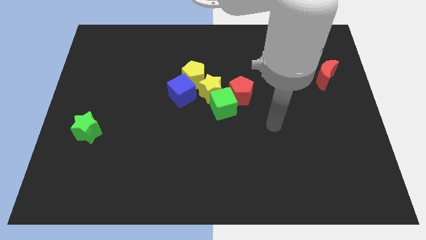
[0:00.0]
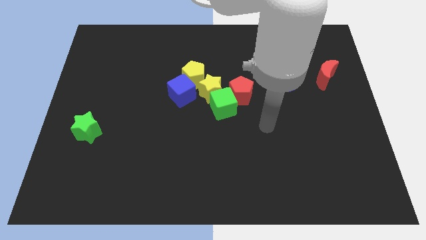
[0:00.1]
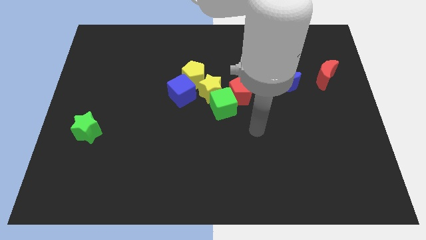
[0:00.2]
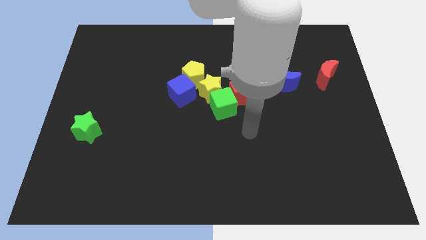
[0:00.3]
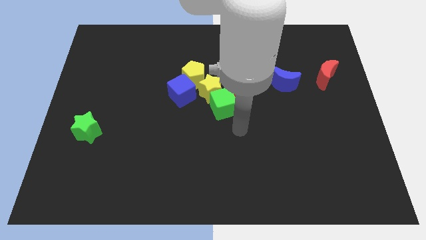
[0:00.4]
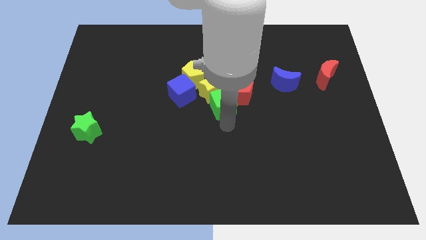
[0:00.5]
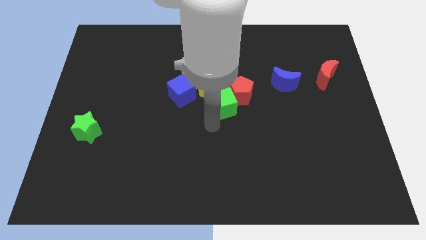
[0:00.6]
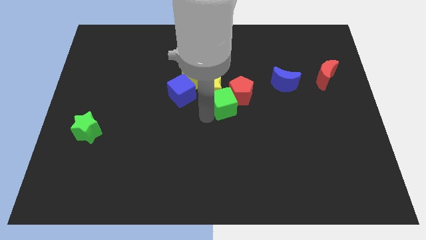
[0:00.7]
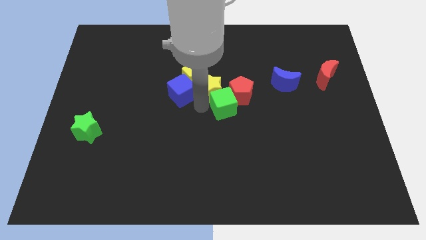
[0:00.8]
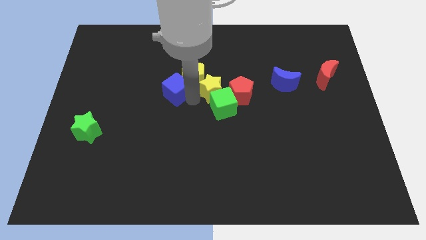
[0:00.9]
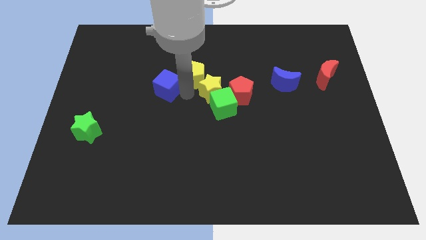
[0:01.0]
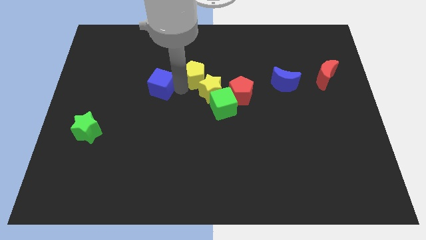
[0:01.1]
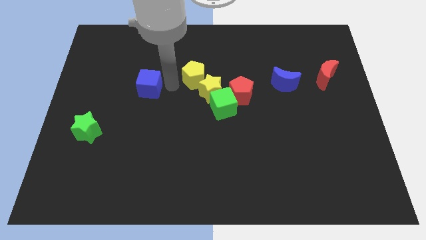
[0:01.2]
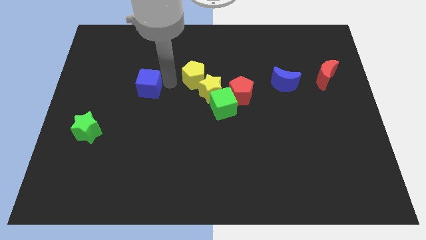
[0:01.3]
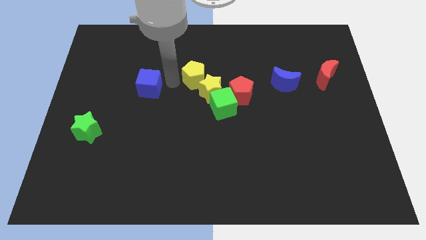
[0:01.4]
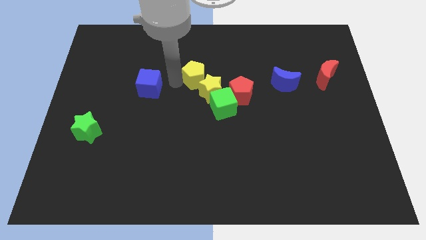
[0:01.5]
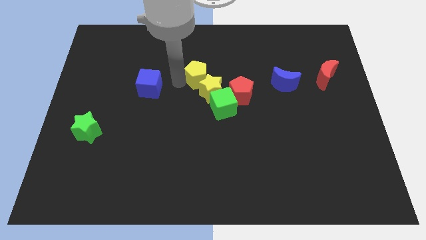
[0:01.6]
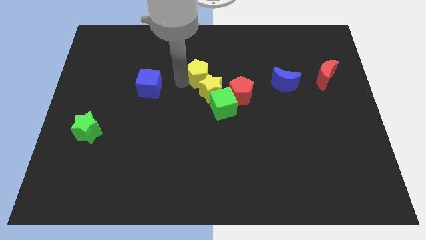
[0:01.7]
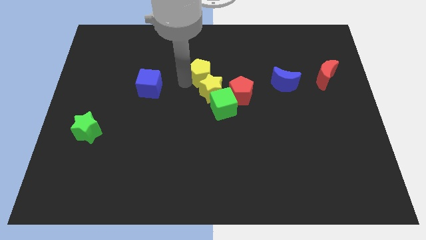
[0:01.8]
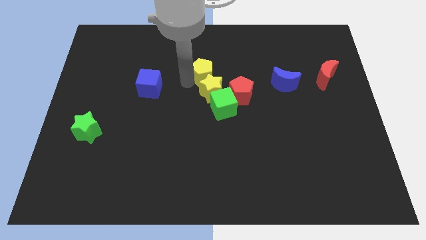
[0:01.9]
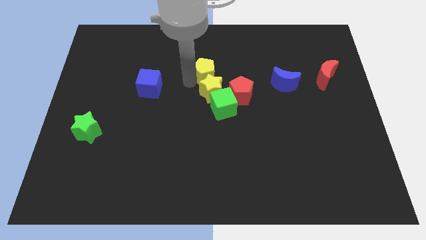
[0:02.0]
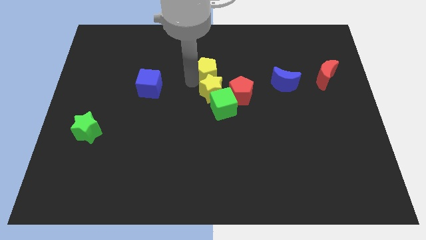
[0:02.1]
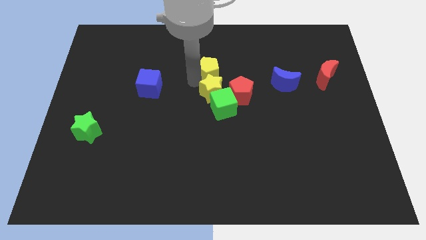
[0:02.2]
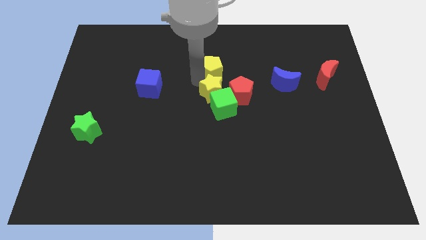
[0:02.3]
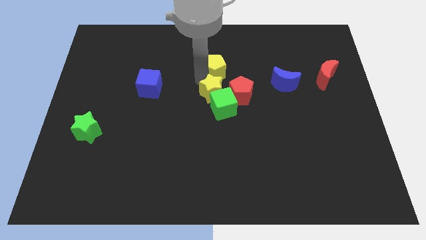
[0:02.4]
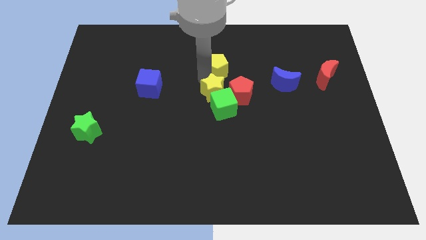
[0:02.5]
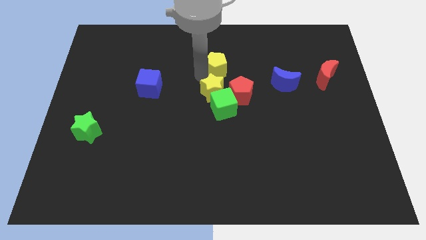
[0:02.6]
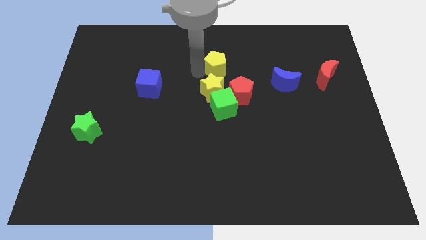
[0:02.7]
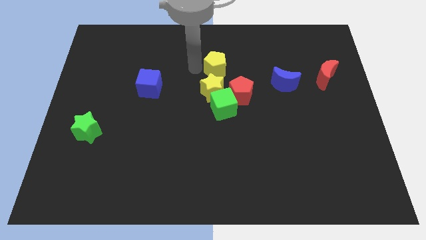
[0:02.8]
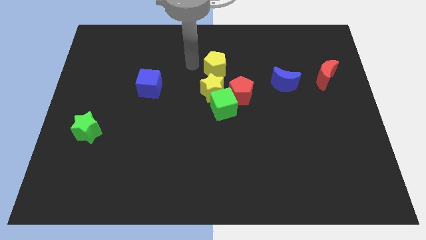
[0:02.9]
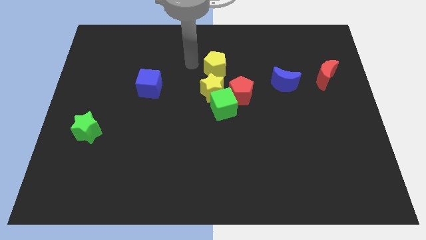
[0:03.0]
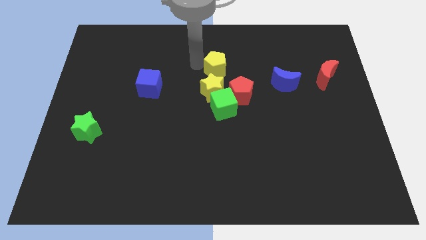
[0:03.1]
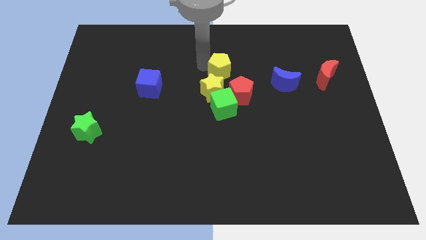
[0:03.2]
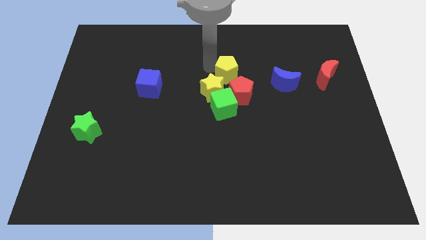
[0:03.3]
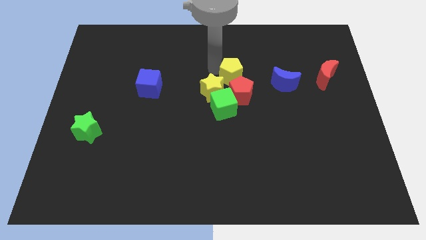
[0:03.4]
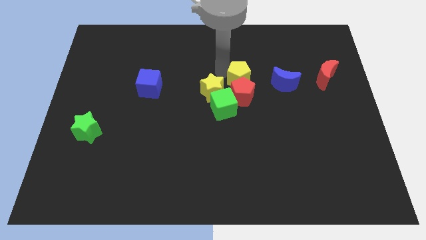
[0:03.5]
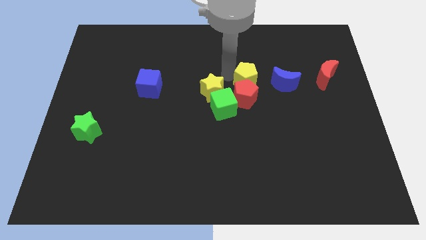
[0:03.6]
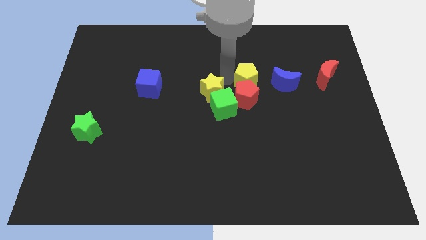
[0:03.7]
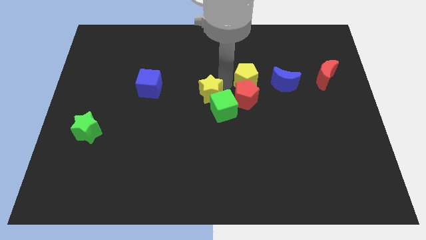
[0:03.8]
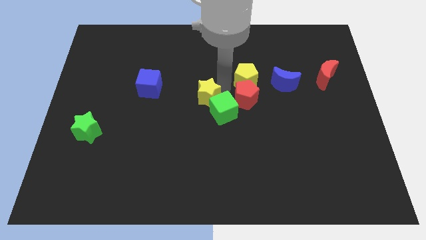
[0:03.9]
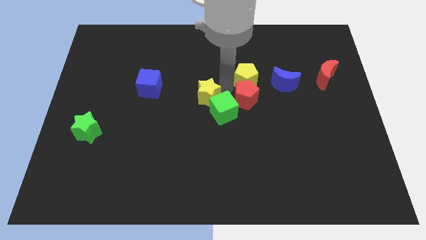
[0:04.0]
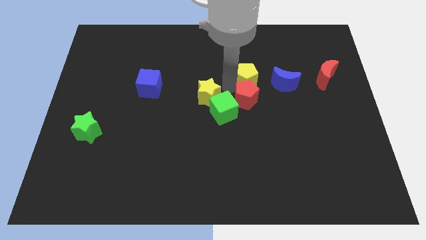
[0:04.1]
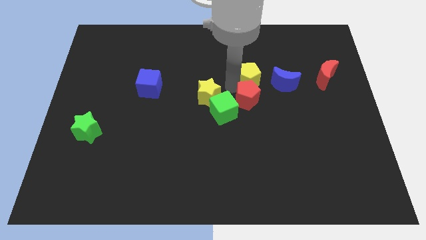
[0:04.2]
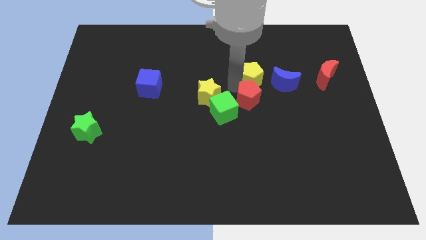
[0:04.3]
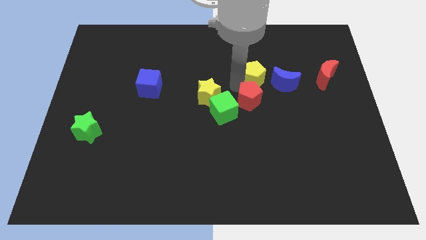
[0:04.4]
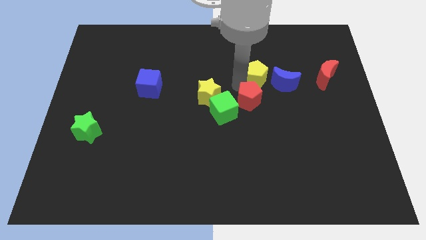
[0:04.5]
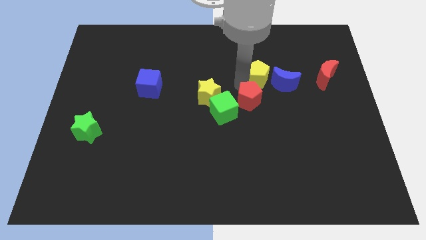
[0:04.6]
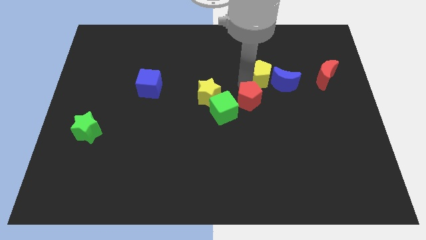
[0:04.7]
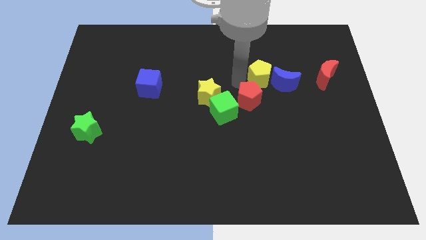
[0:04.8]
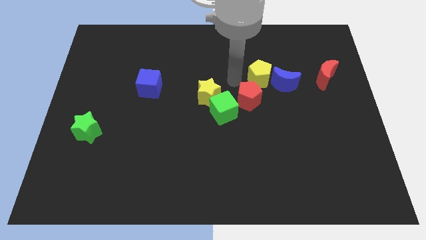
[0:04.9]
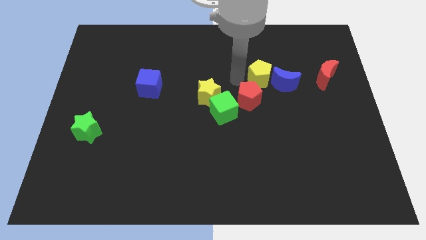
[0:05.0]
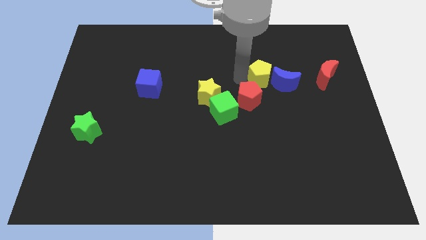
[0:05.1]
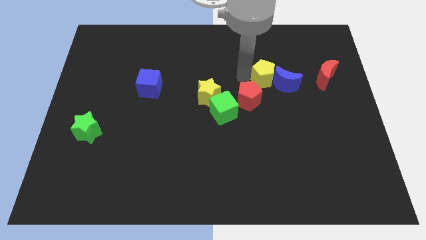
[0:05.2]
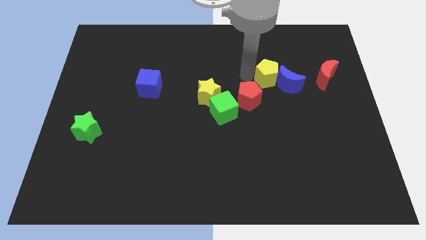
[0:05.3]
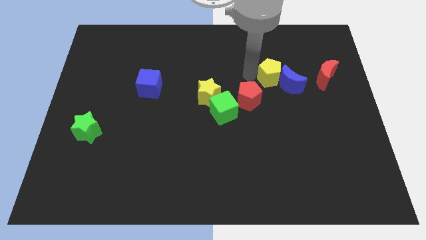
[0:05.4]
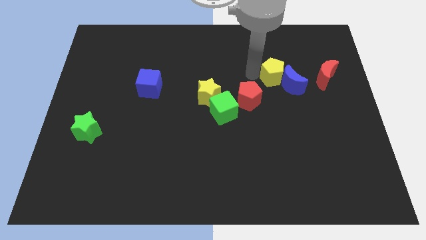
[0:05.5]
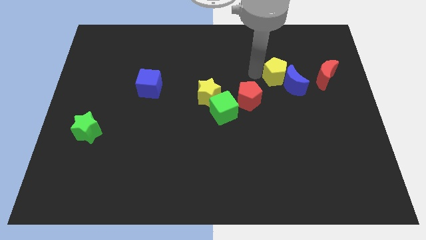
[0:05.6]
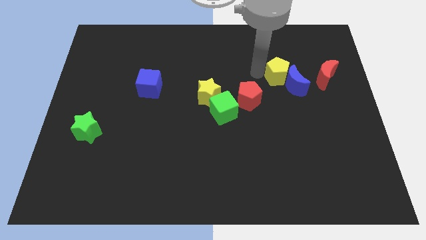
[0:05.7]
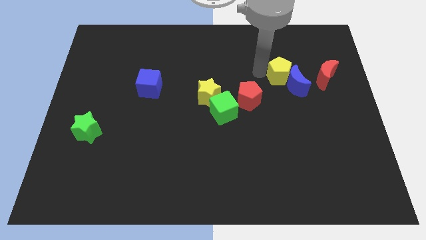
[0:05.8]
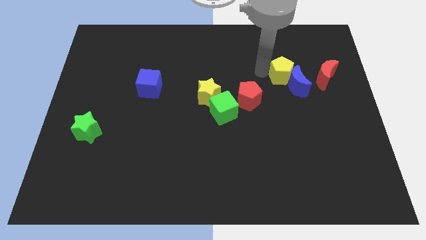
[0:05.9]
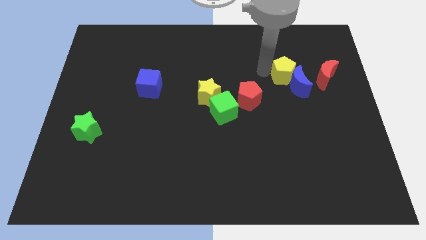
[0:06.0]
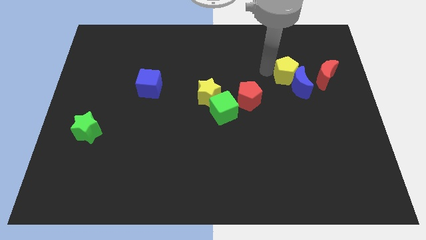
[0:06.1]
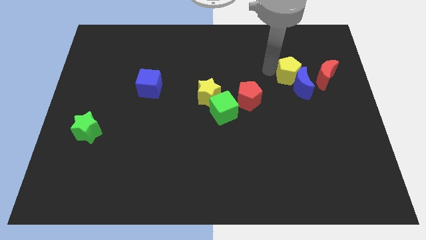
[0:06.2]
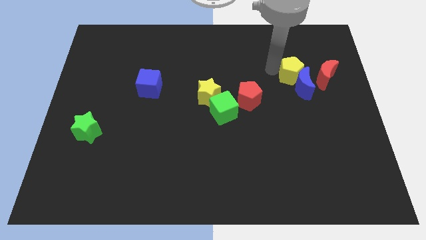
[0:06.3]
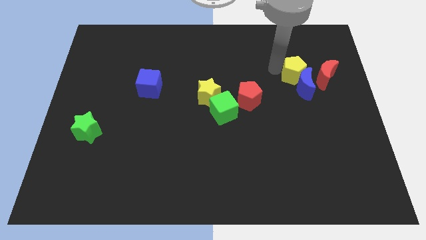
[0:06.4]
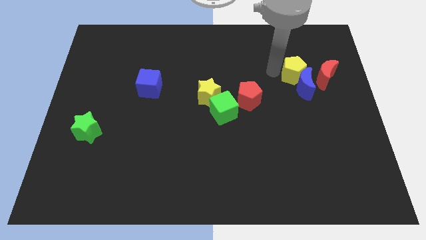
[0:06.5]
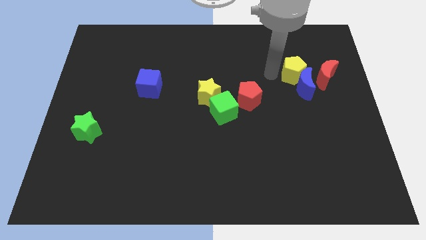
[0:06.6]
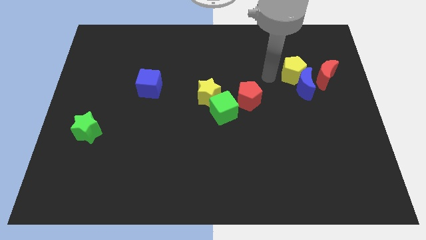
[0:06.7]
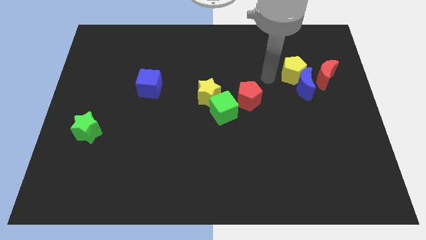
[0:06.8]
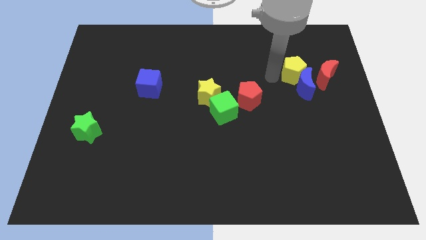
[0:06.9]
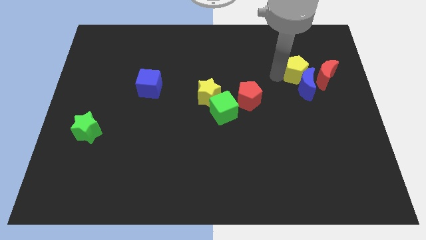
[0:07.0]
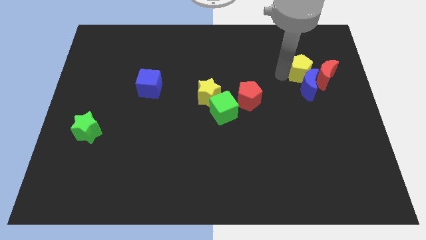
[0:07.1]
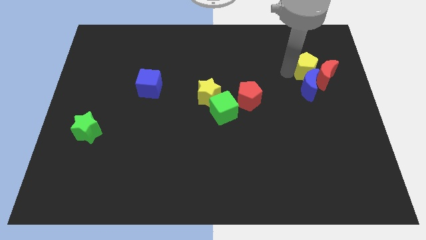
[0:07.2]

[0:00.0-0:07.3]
push the yellow pentagon to the red moon
